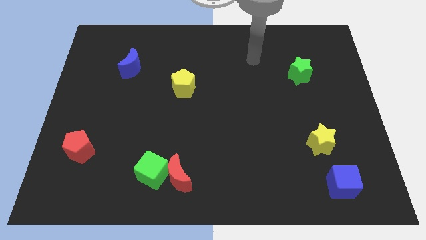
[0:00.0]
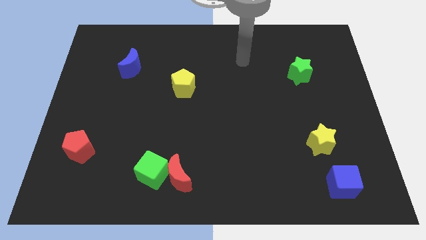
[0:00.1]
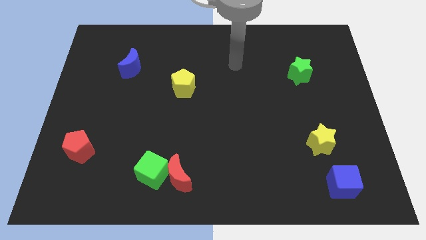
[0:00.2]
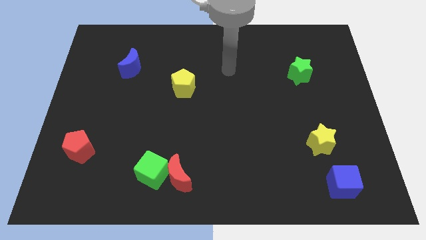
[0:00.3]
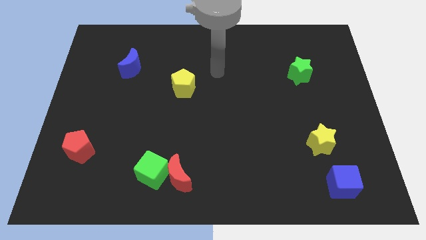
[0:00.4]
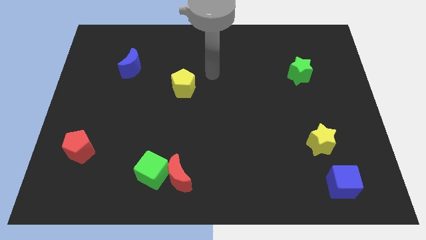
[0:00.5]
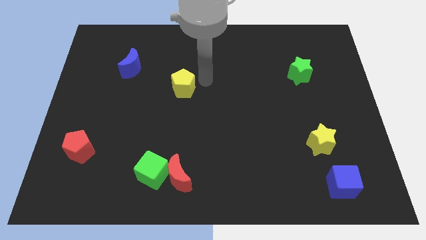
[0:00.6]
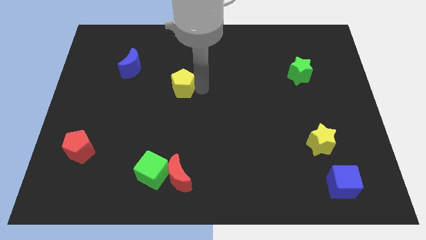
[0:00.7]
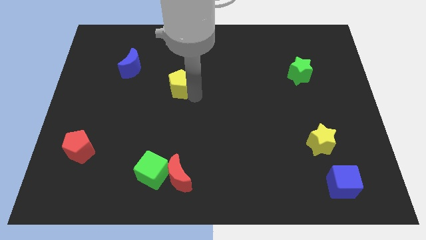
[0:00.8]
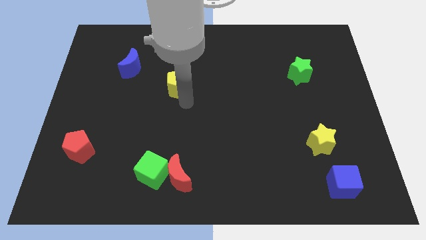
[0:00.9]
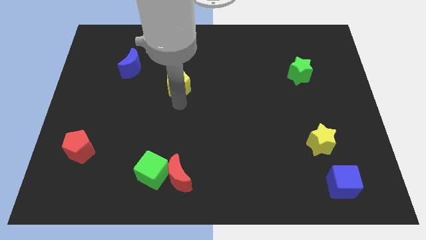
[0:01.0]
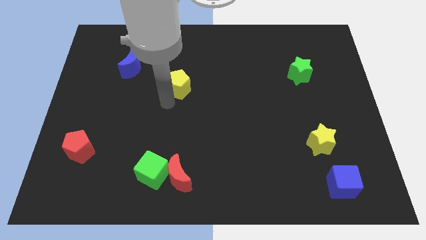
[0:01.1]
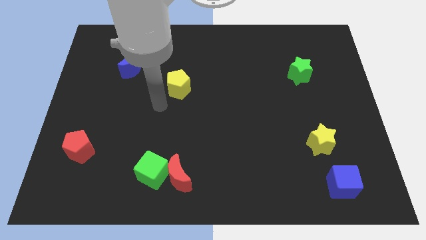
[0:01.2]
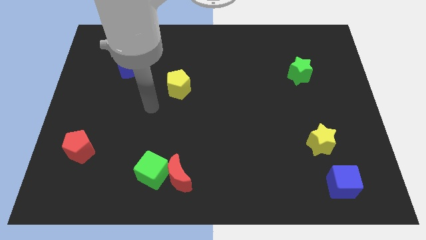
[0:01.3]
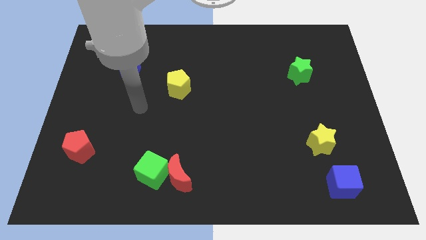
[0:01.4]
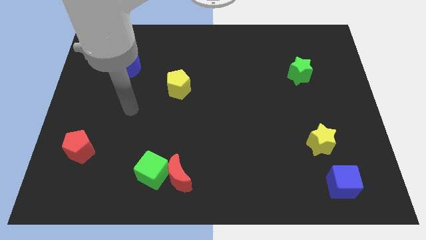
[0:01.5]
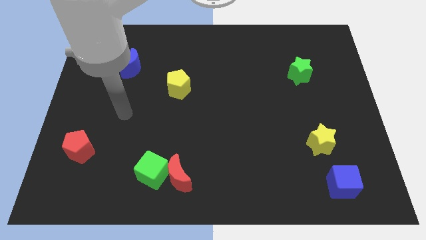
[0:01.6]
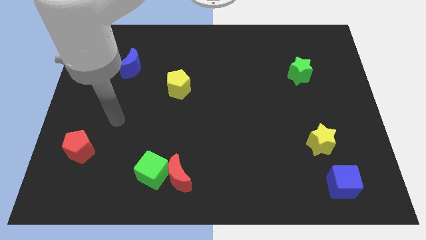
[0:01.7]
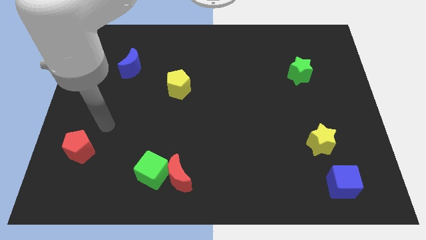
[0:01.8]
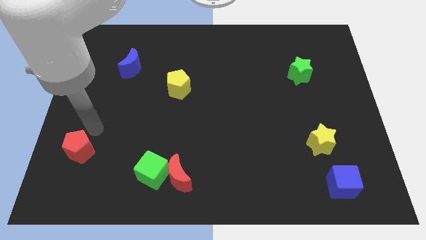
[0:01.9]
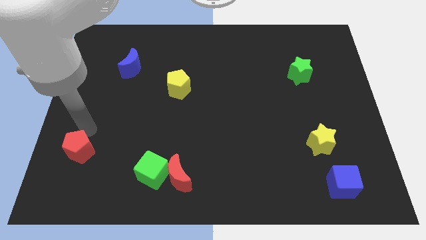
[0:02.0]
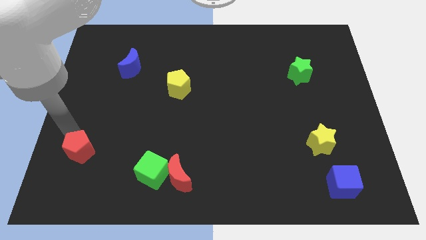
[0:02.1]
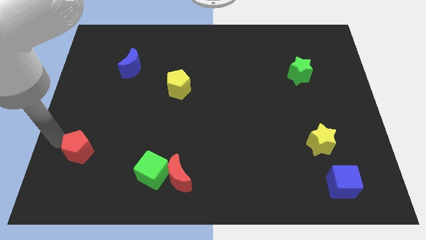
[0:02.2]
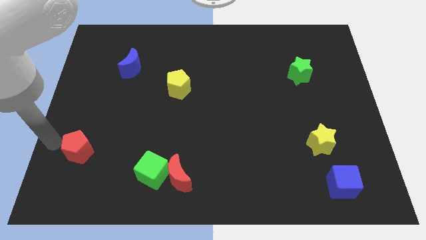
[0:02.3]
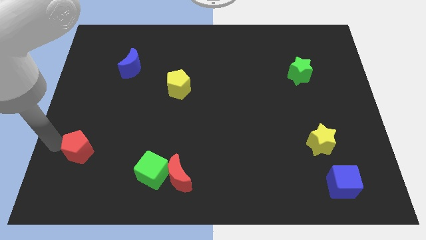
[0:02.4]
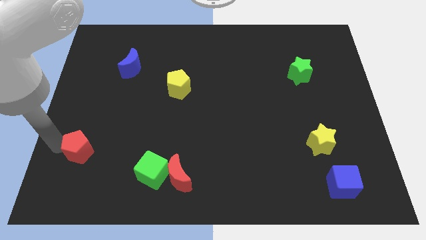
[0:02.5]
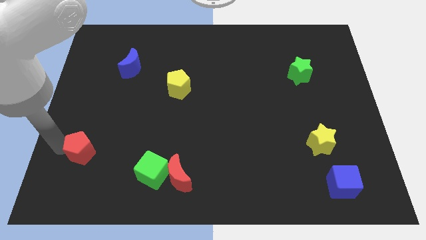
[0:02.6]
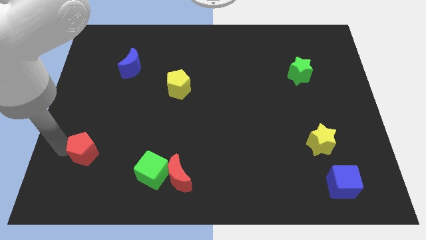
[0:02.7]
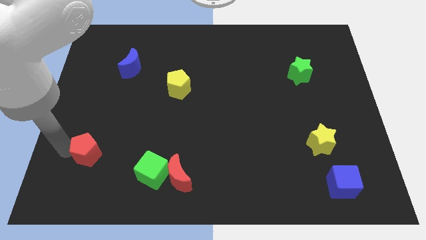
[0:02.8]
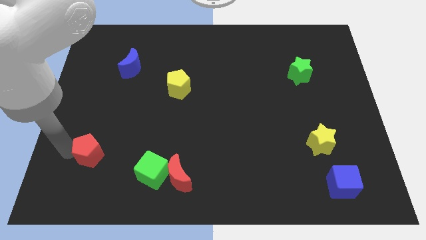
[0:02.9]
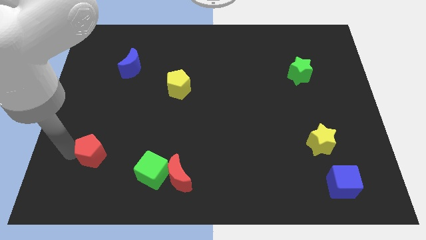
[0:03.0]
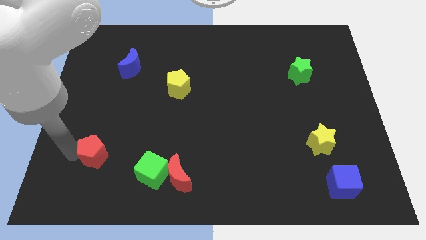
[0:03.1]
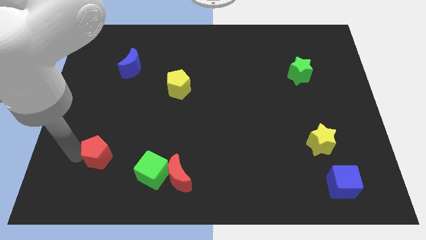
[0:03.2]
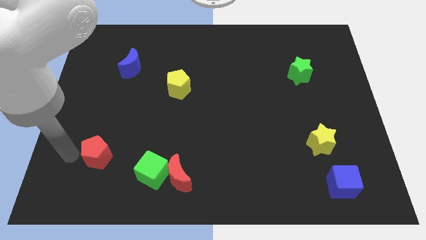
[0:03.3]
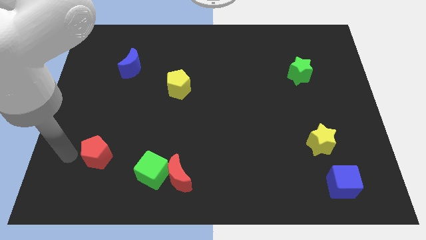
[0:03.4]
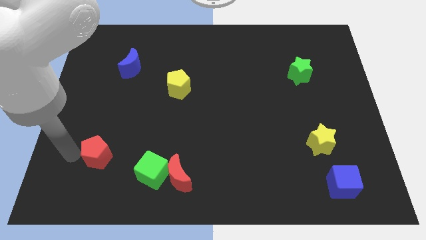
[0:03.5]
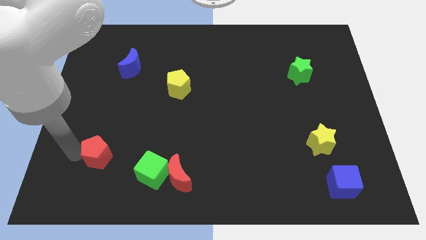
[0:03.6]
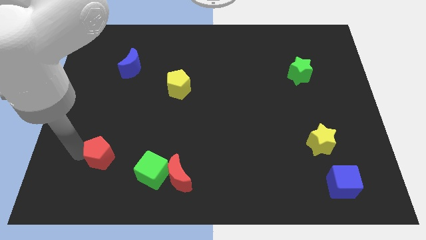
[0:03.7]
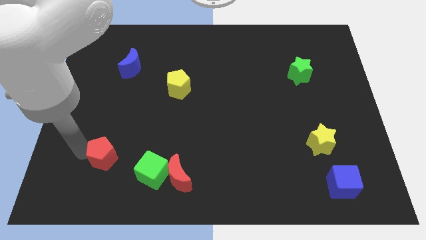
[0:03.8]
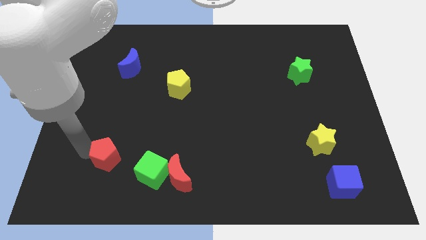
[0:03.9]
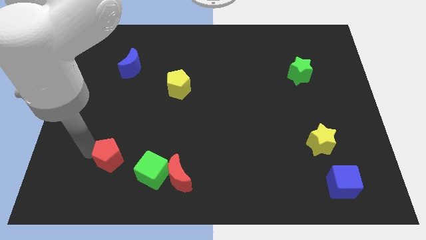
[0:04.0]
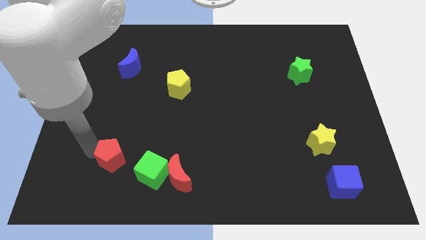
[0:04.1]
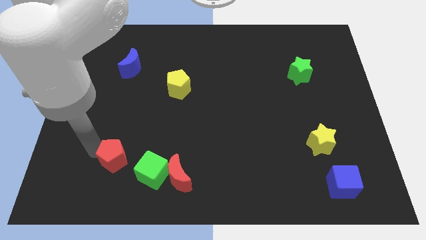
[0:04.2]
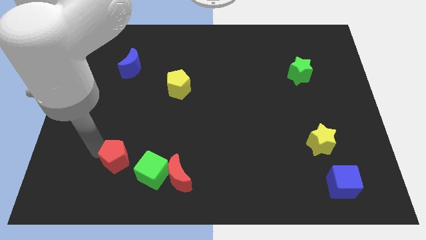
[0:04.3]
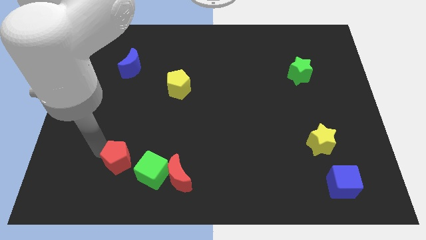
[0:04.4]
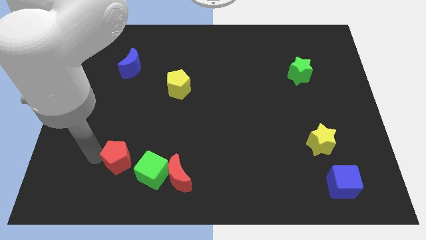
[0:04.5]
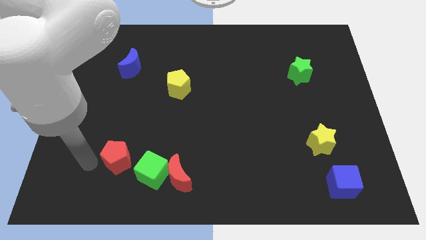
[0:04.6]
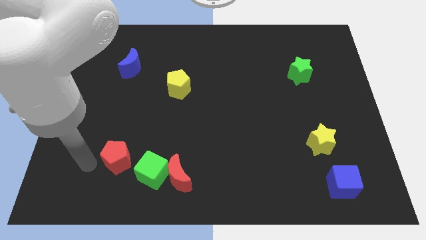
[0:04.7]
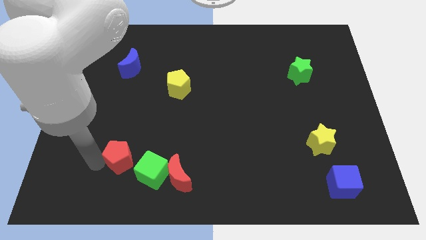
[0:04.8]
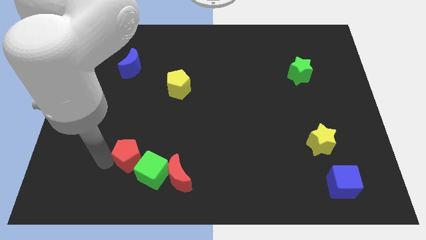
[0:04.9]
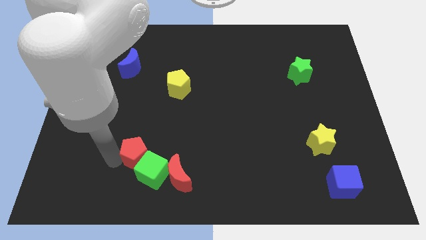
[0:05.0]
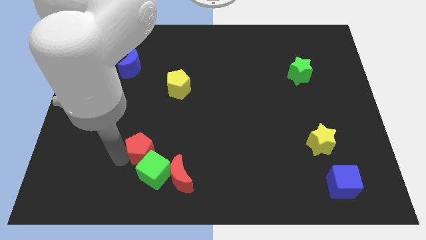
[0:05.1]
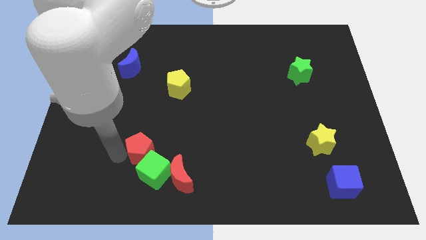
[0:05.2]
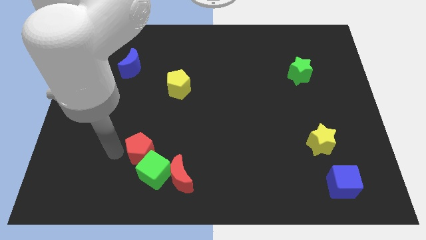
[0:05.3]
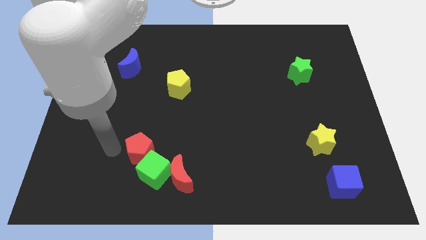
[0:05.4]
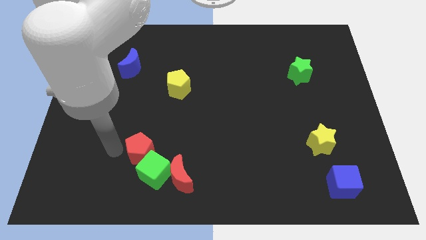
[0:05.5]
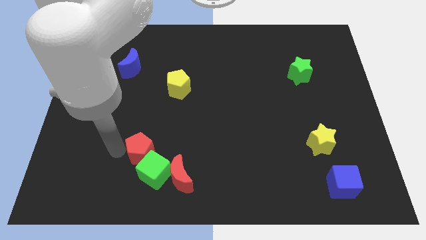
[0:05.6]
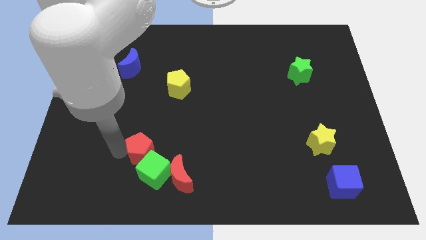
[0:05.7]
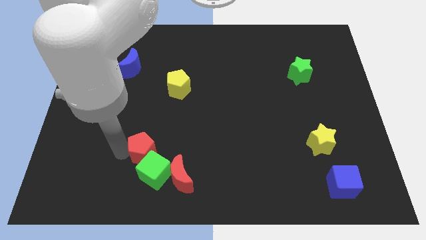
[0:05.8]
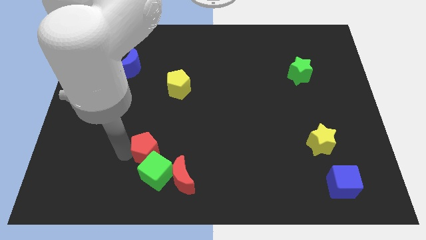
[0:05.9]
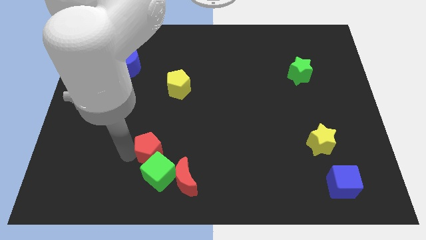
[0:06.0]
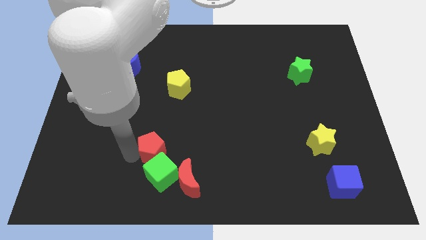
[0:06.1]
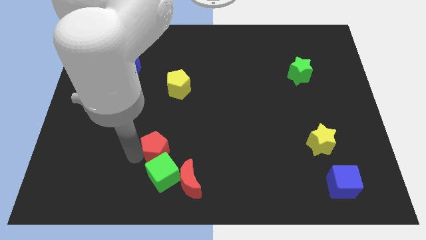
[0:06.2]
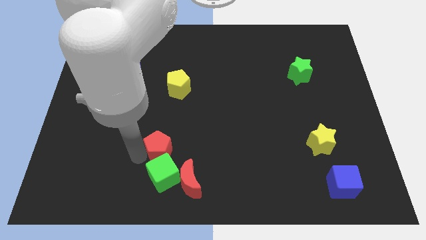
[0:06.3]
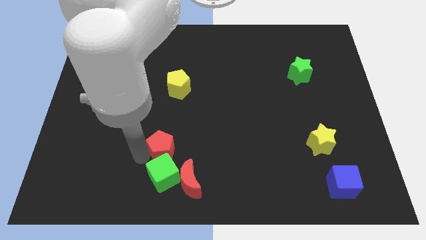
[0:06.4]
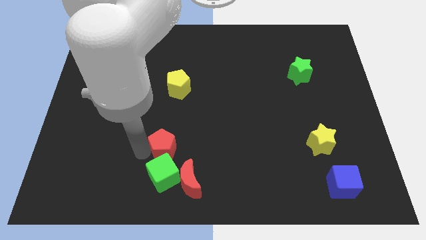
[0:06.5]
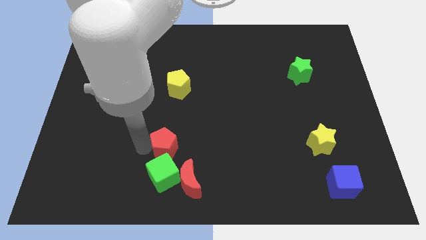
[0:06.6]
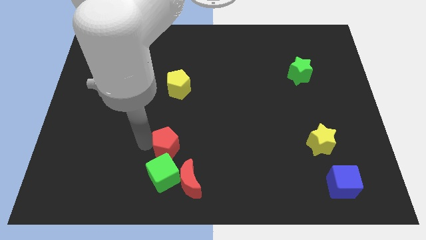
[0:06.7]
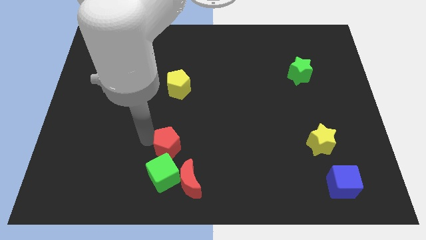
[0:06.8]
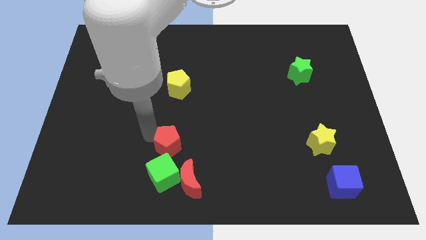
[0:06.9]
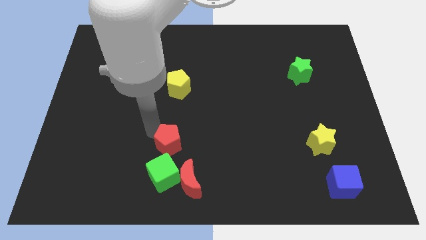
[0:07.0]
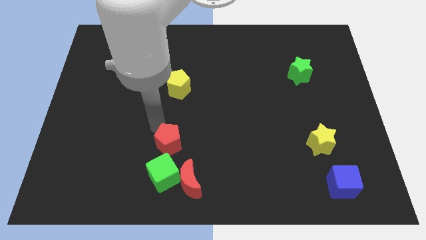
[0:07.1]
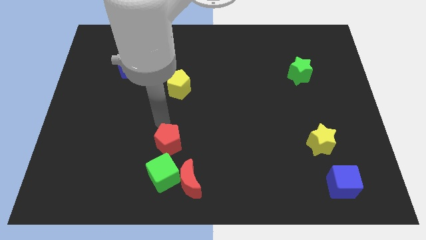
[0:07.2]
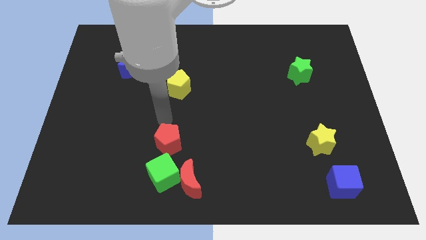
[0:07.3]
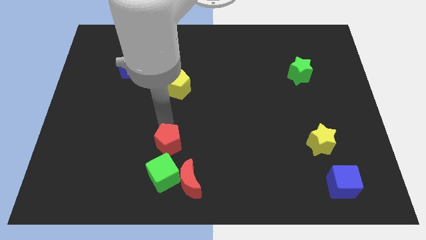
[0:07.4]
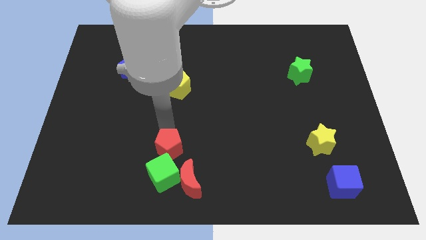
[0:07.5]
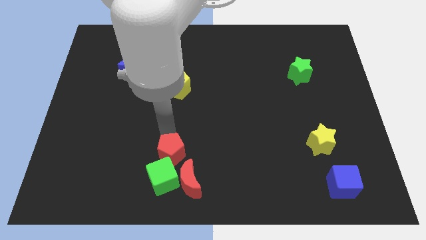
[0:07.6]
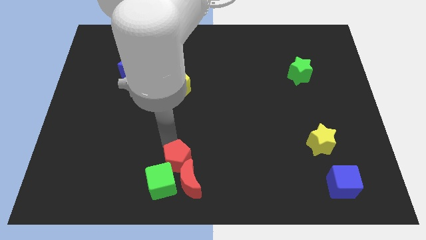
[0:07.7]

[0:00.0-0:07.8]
move the red pentagon to the red moon
